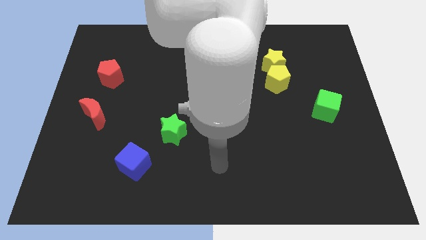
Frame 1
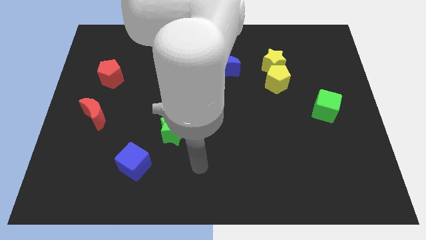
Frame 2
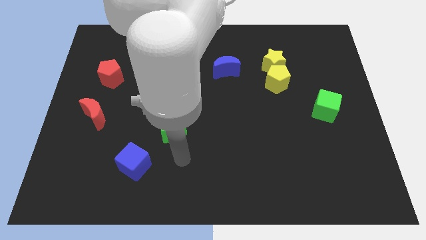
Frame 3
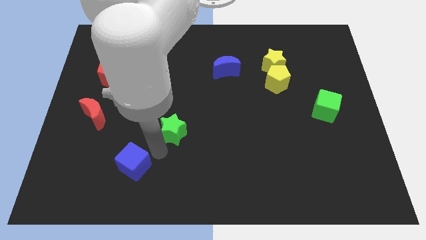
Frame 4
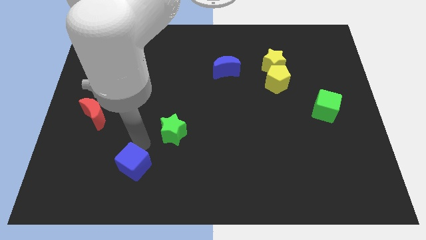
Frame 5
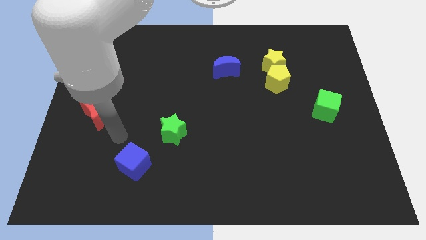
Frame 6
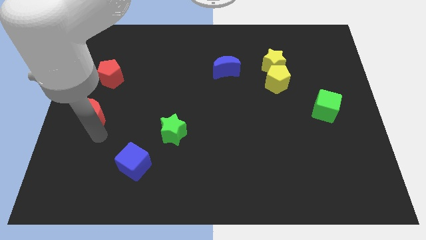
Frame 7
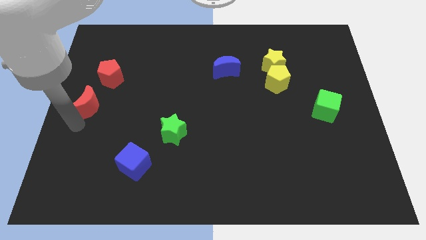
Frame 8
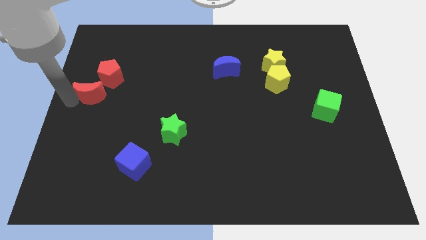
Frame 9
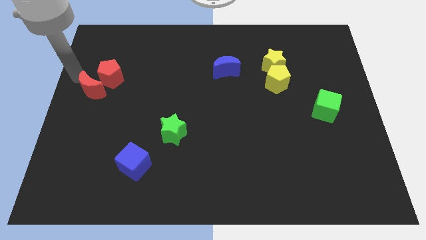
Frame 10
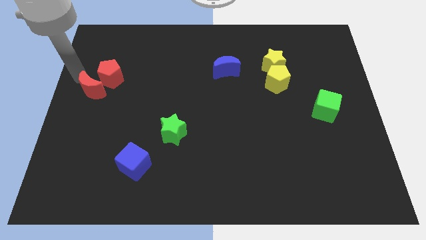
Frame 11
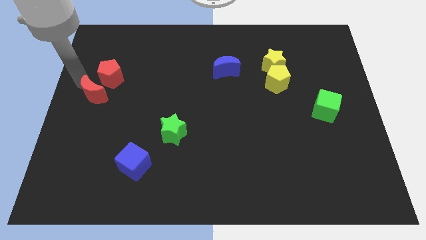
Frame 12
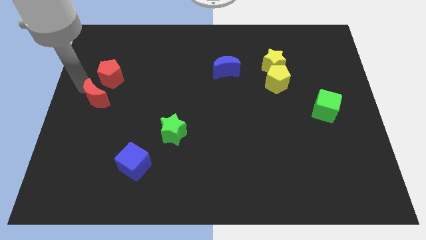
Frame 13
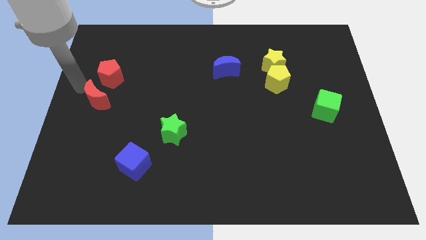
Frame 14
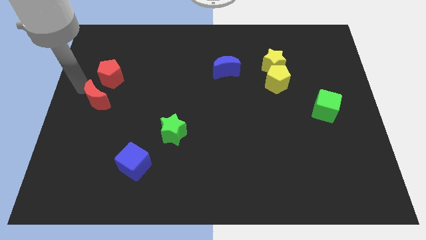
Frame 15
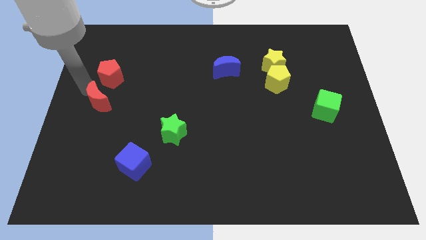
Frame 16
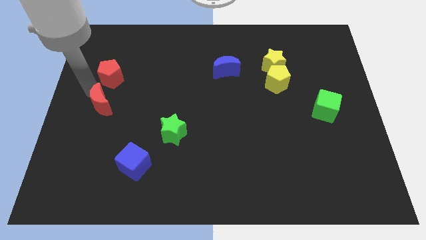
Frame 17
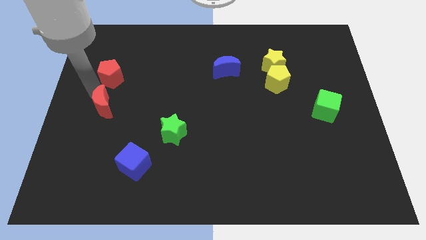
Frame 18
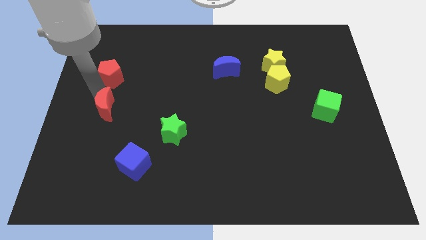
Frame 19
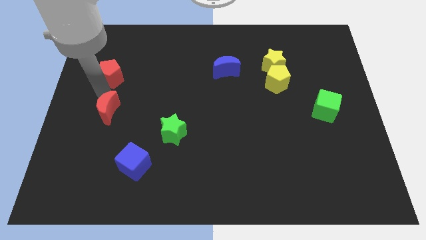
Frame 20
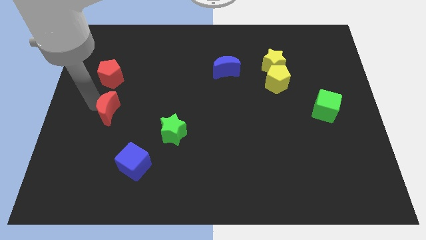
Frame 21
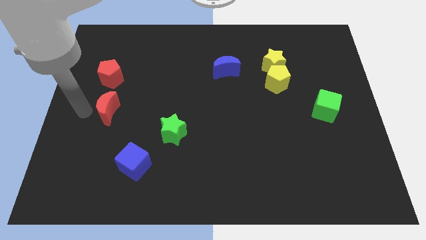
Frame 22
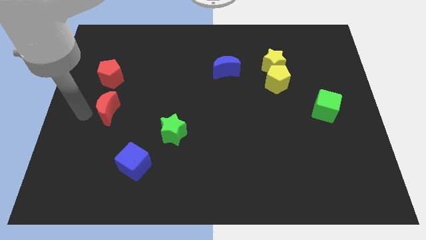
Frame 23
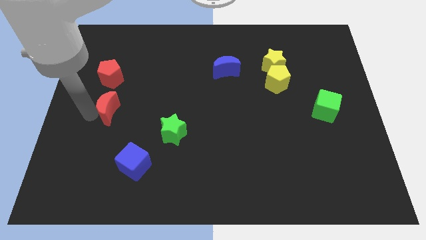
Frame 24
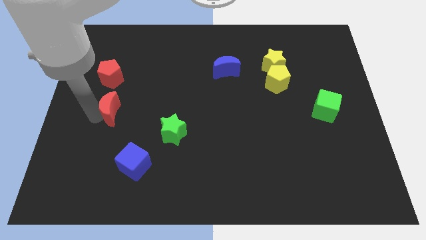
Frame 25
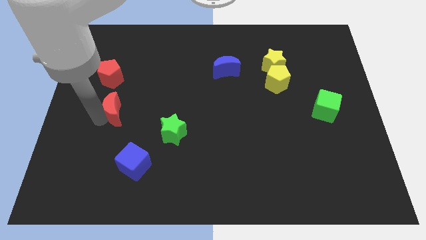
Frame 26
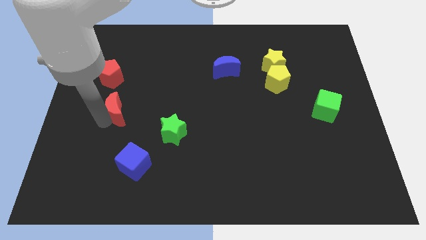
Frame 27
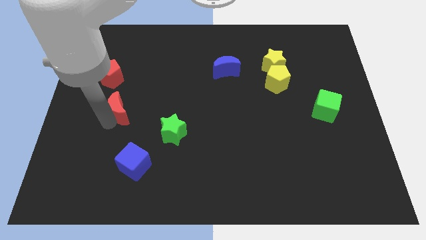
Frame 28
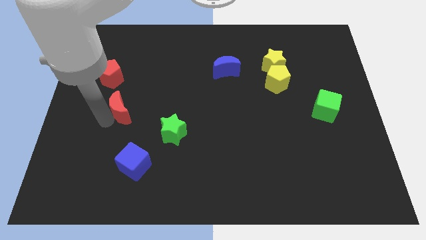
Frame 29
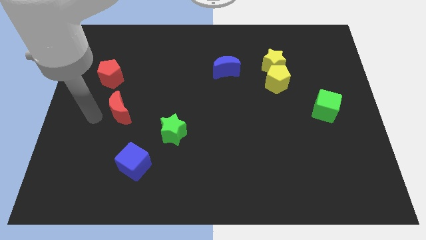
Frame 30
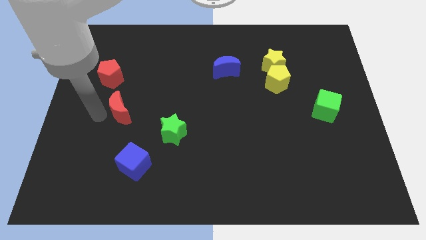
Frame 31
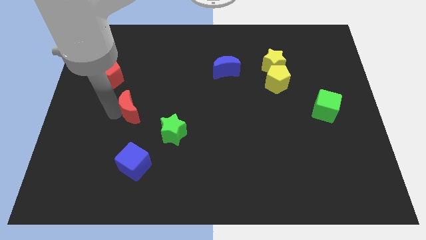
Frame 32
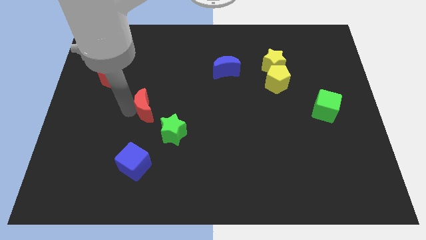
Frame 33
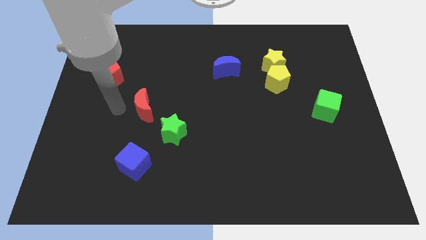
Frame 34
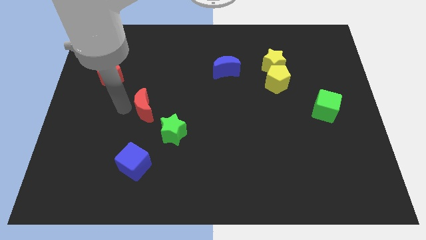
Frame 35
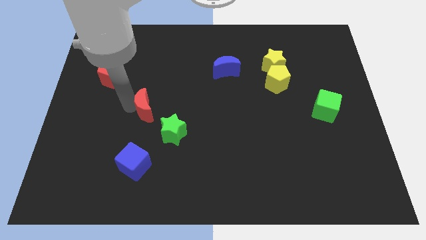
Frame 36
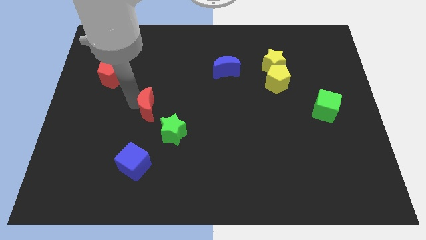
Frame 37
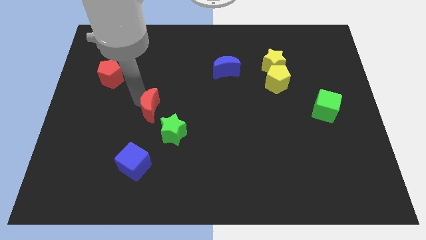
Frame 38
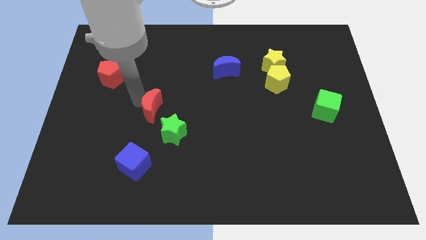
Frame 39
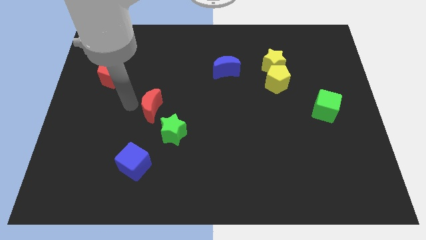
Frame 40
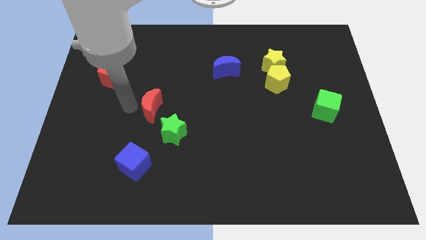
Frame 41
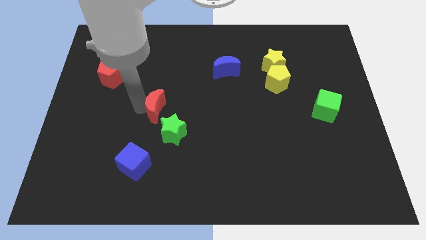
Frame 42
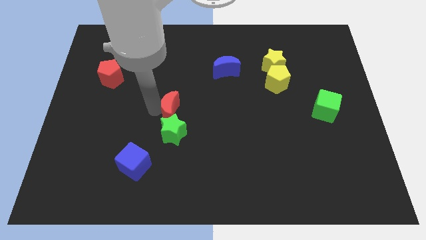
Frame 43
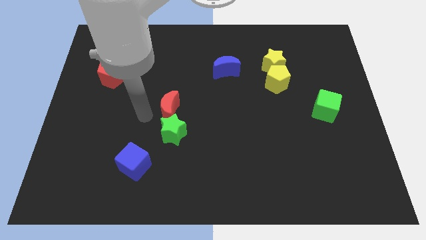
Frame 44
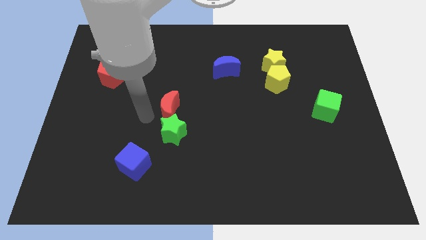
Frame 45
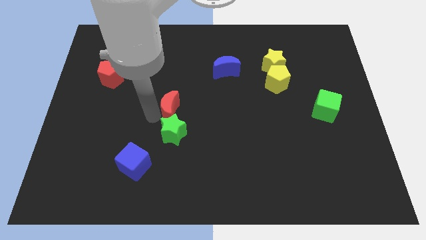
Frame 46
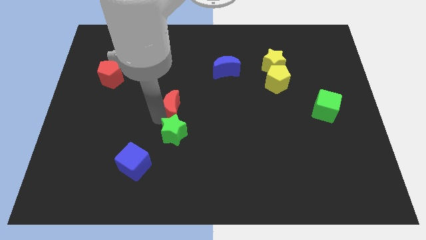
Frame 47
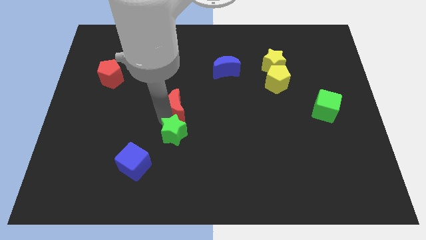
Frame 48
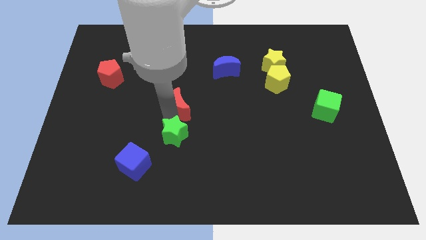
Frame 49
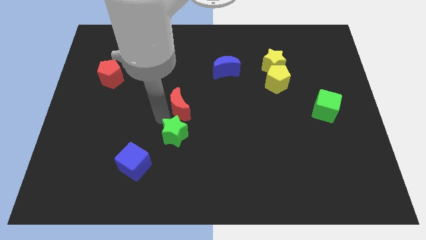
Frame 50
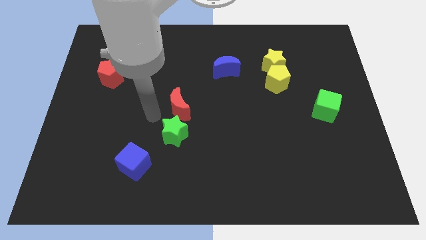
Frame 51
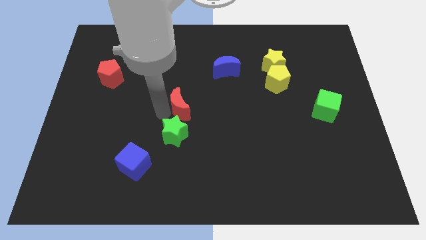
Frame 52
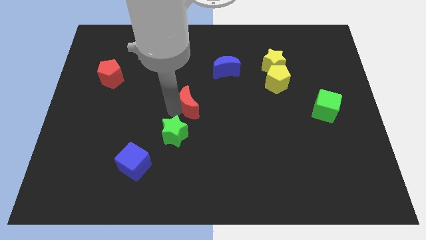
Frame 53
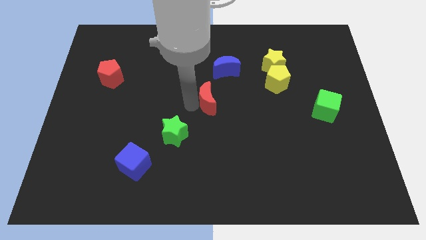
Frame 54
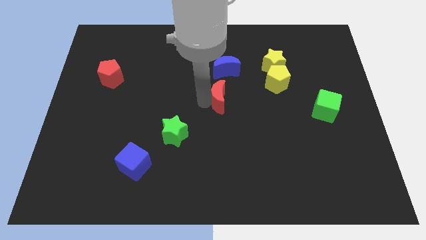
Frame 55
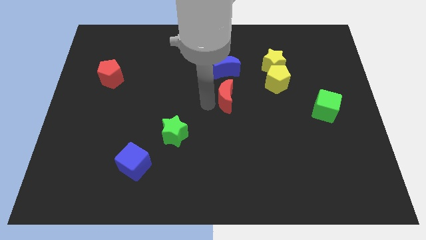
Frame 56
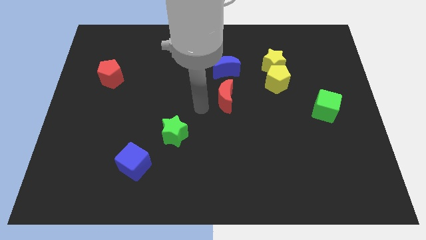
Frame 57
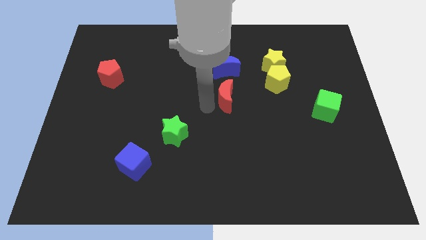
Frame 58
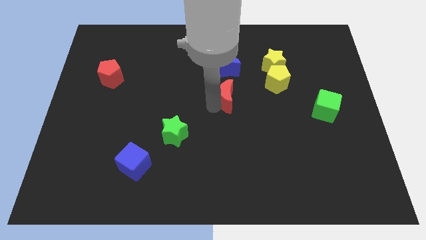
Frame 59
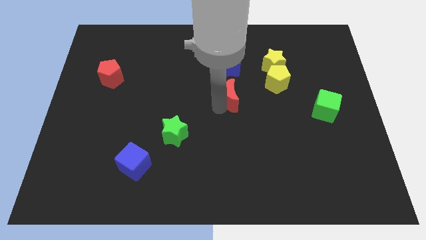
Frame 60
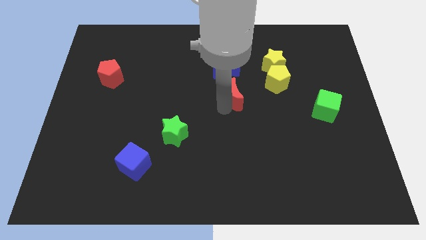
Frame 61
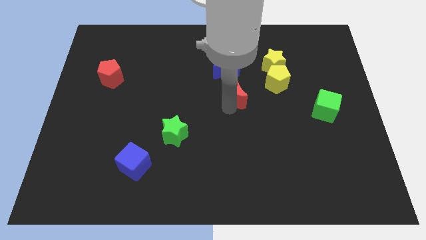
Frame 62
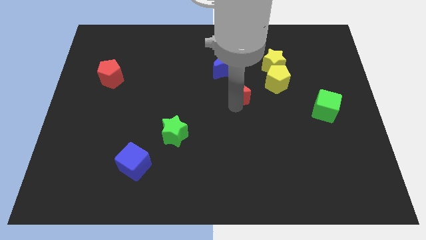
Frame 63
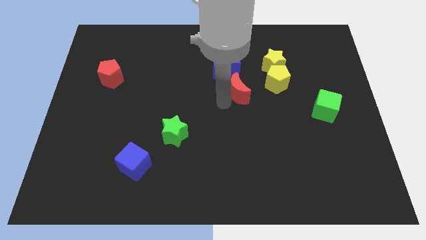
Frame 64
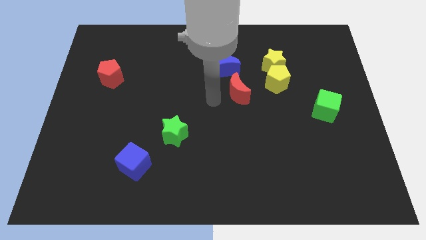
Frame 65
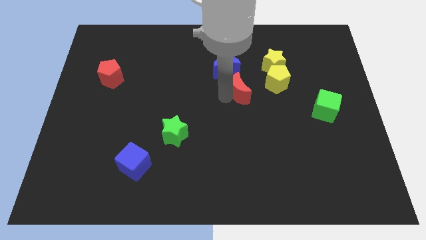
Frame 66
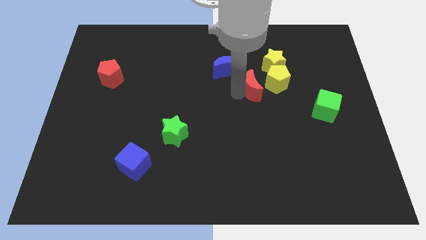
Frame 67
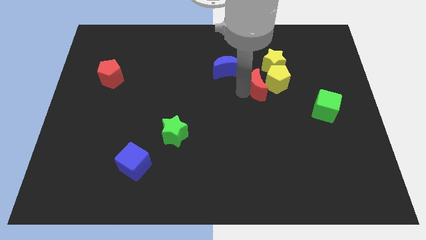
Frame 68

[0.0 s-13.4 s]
move the red moon next to the yellow pentagon

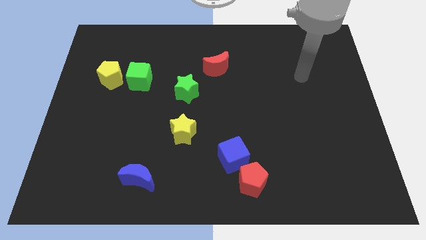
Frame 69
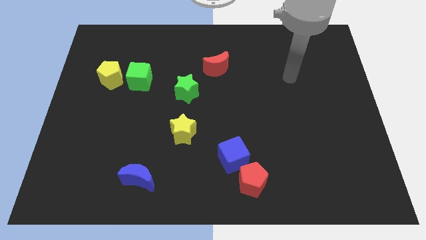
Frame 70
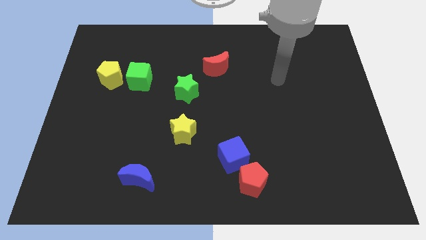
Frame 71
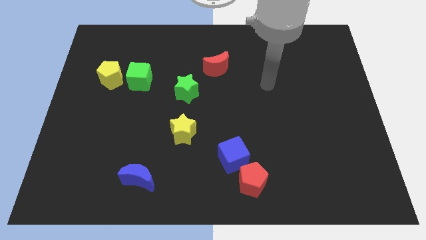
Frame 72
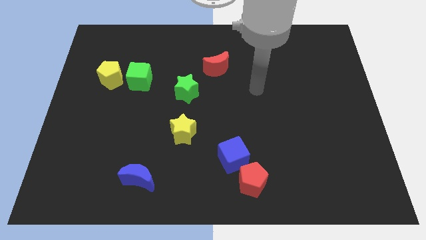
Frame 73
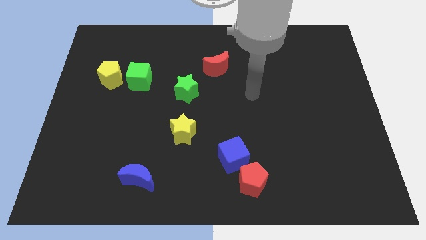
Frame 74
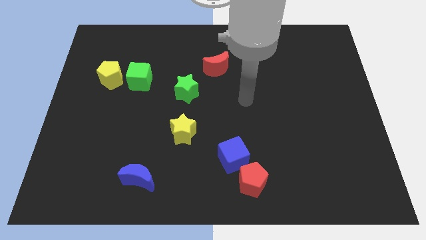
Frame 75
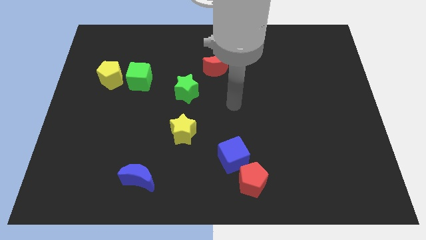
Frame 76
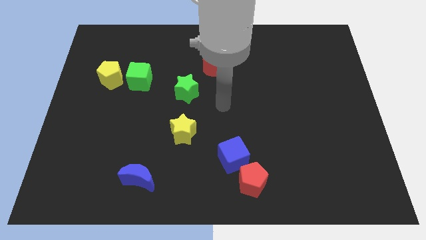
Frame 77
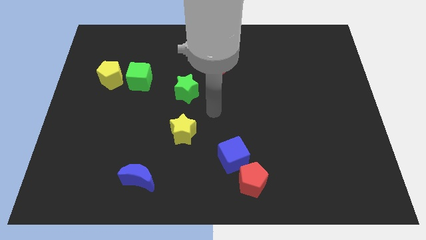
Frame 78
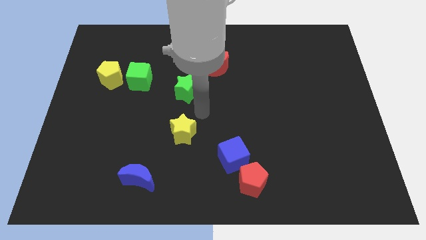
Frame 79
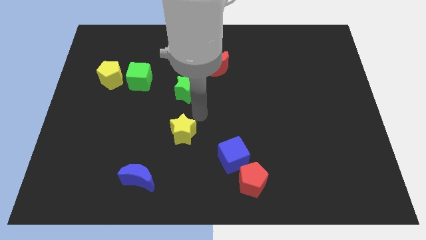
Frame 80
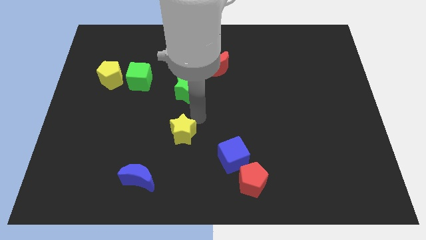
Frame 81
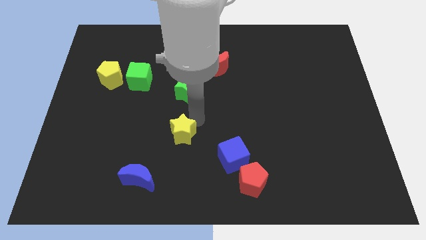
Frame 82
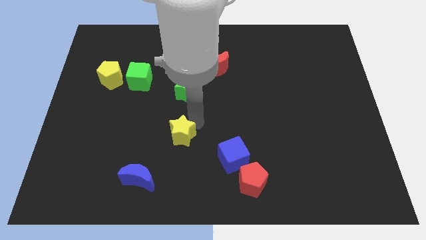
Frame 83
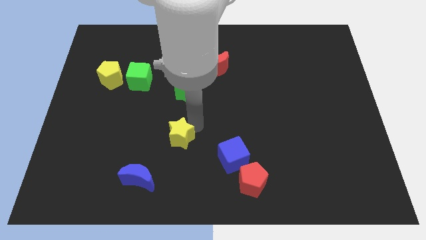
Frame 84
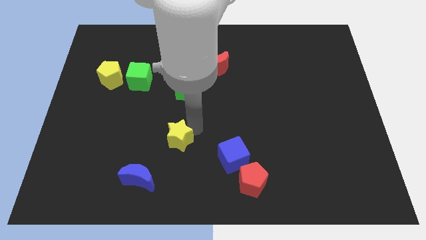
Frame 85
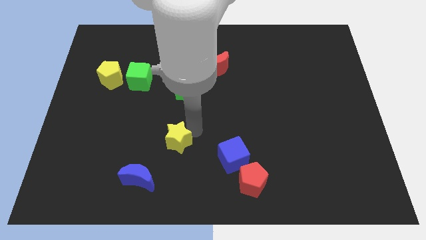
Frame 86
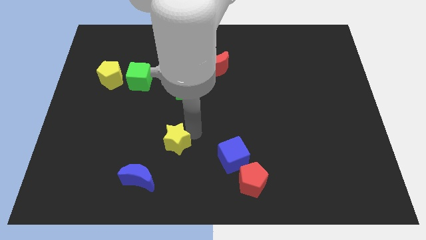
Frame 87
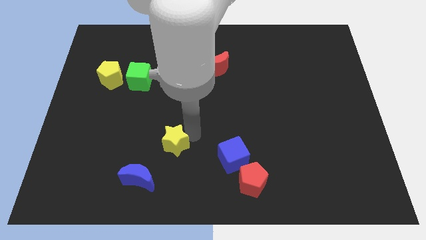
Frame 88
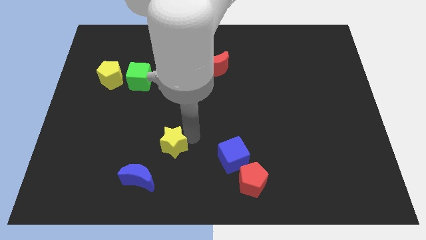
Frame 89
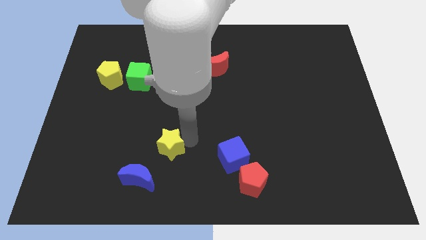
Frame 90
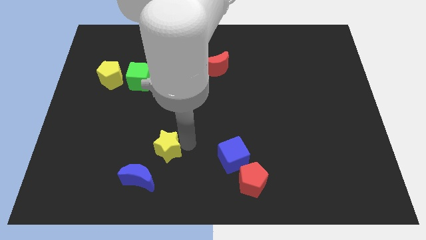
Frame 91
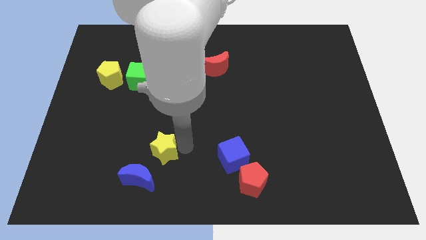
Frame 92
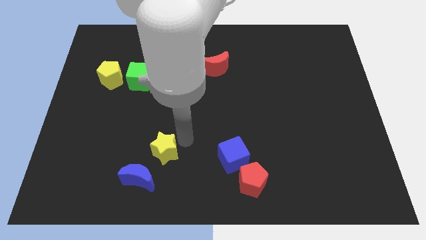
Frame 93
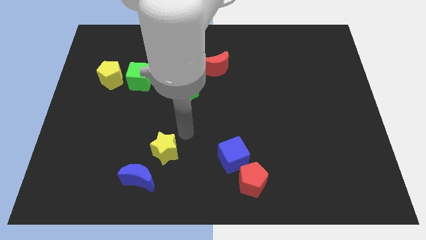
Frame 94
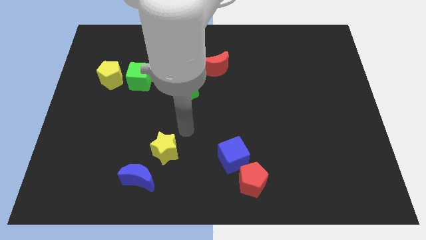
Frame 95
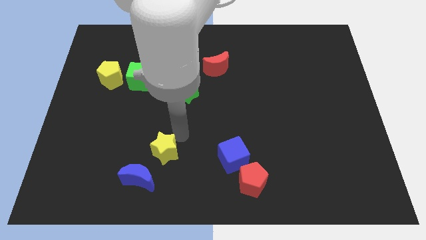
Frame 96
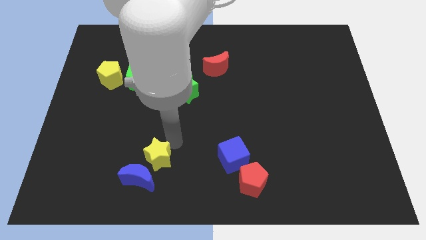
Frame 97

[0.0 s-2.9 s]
put the yellow star close to the blue moon
